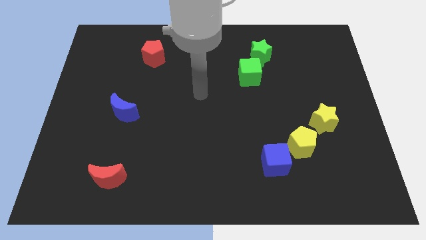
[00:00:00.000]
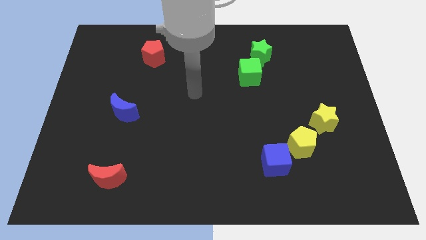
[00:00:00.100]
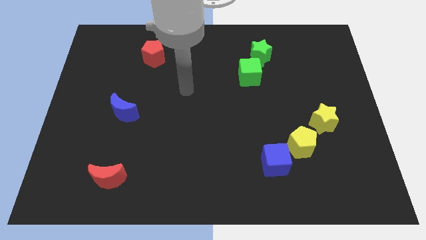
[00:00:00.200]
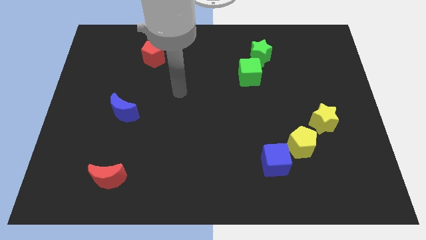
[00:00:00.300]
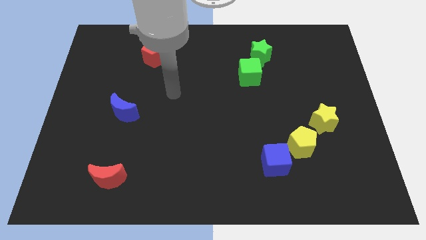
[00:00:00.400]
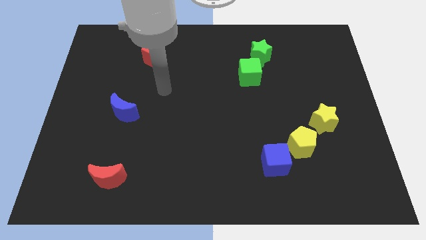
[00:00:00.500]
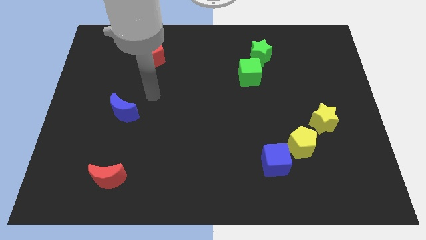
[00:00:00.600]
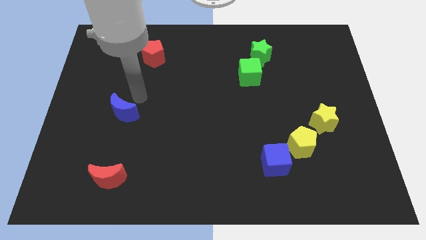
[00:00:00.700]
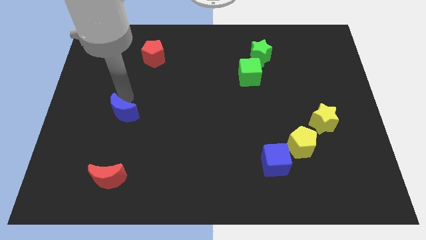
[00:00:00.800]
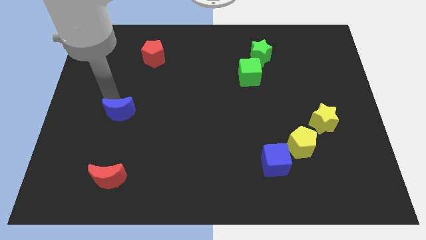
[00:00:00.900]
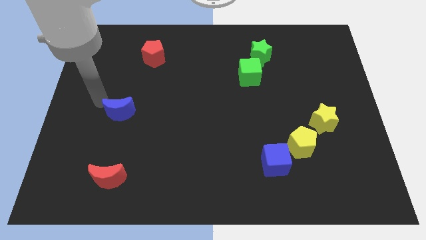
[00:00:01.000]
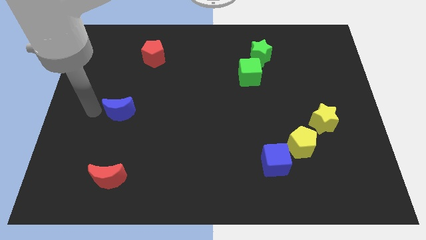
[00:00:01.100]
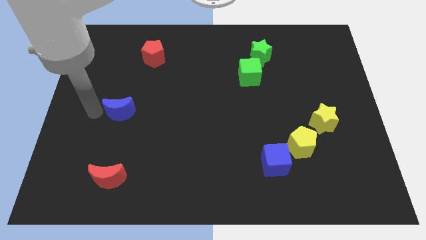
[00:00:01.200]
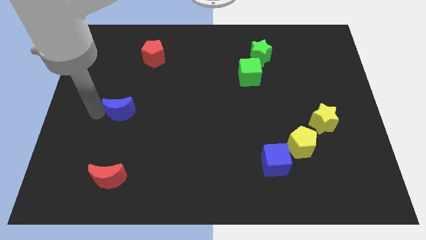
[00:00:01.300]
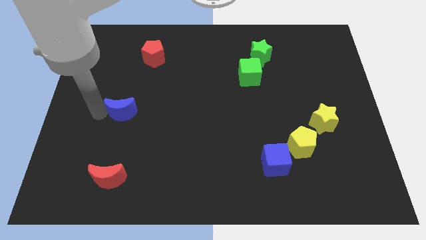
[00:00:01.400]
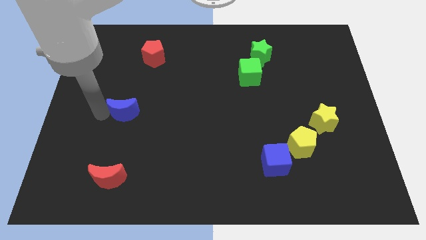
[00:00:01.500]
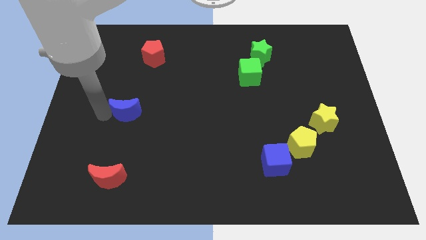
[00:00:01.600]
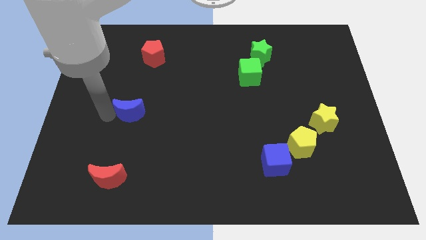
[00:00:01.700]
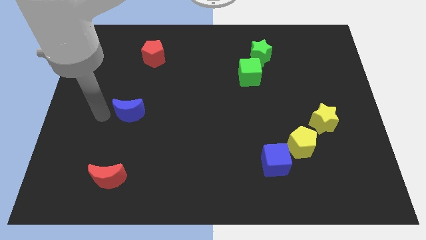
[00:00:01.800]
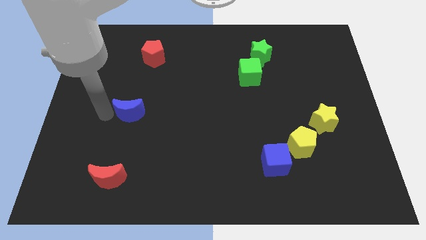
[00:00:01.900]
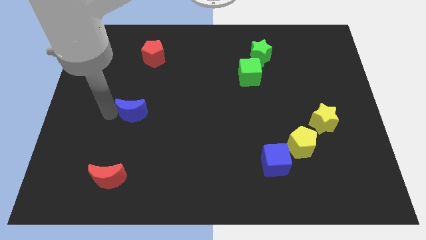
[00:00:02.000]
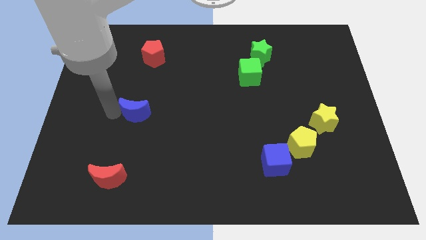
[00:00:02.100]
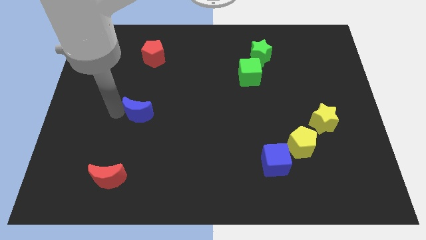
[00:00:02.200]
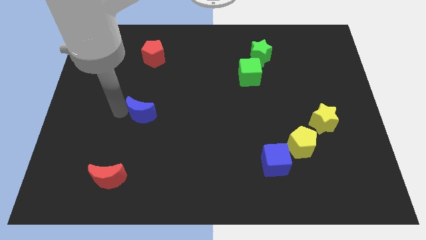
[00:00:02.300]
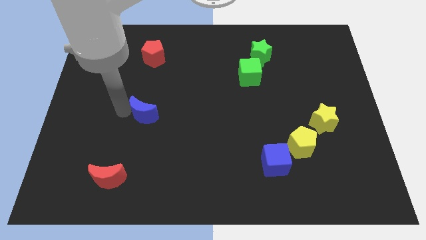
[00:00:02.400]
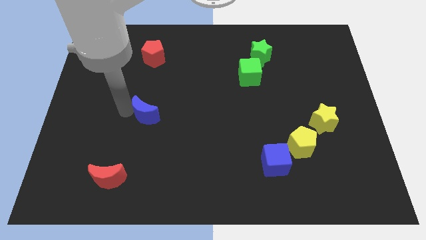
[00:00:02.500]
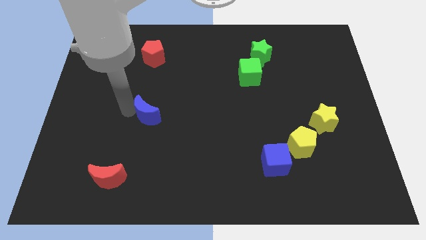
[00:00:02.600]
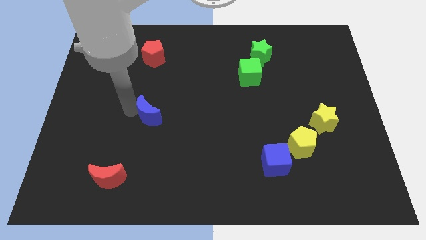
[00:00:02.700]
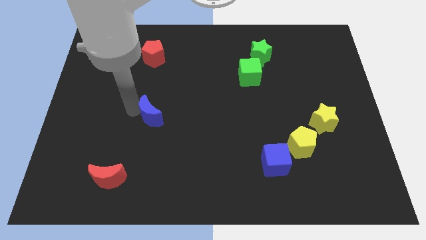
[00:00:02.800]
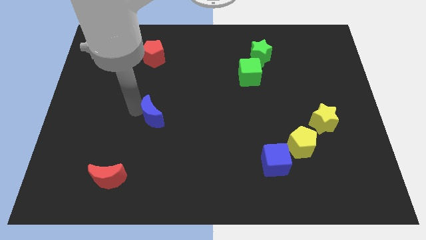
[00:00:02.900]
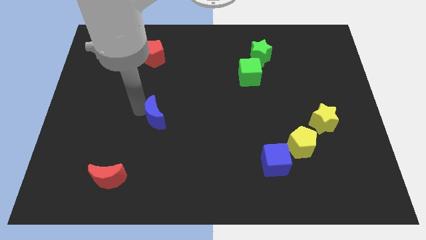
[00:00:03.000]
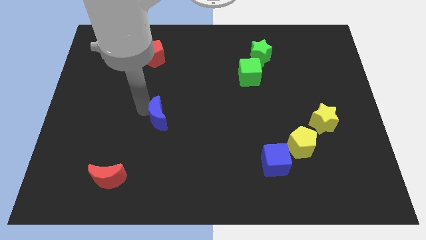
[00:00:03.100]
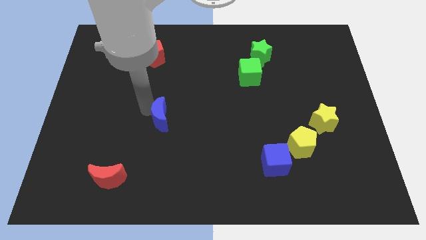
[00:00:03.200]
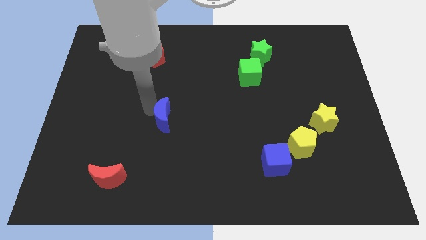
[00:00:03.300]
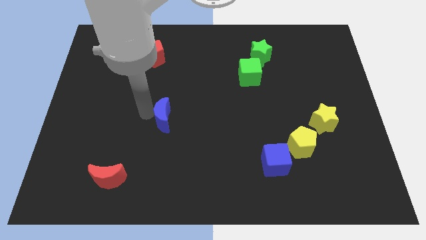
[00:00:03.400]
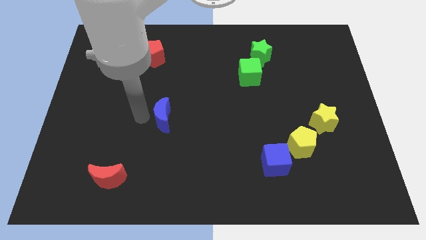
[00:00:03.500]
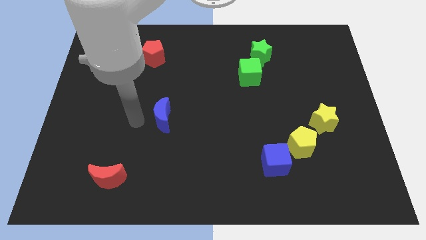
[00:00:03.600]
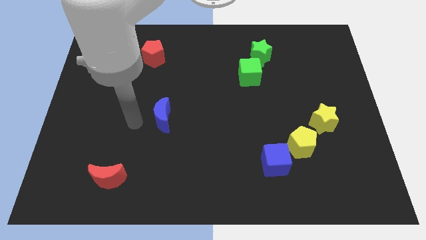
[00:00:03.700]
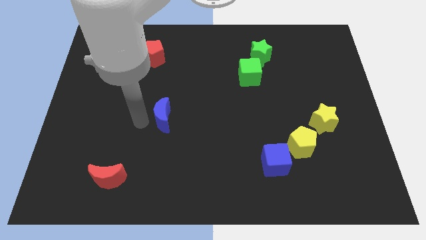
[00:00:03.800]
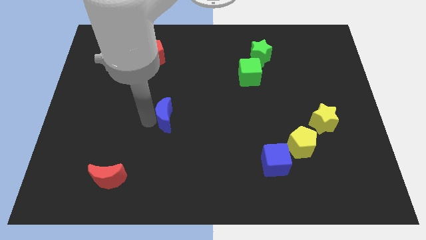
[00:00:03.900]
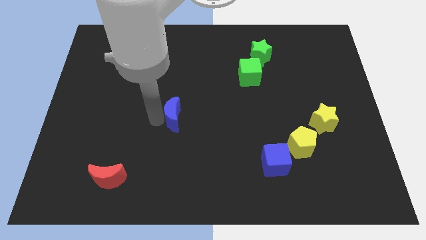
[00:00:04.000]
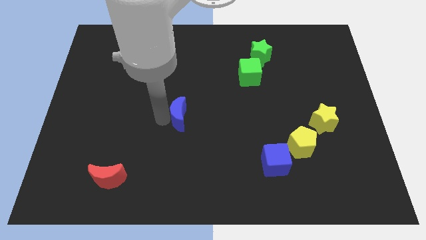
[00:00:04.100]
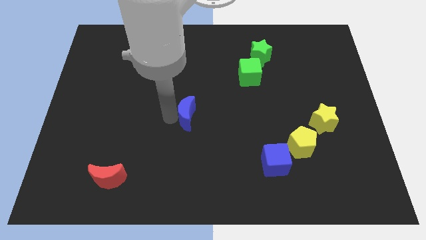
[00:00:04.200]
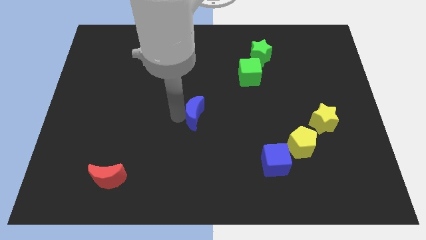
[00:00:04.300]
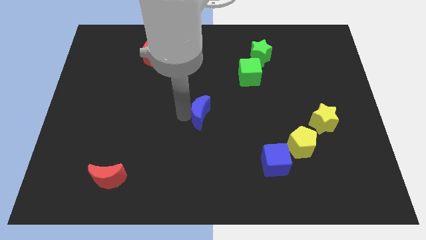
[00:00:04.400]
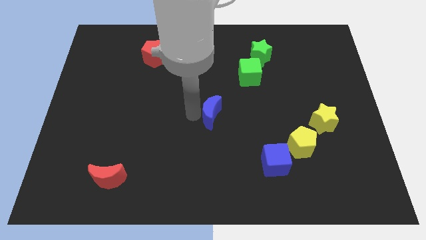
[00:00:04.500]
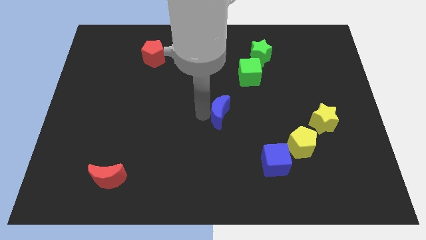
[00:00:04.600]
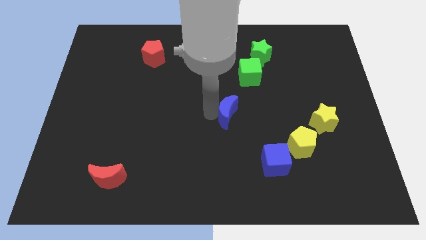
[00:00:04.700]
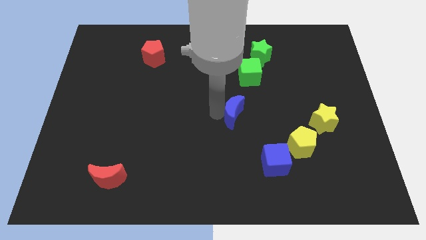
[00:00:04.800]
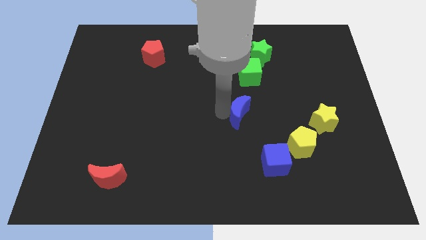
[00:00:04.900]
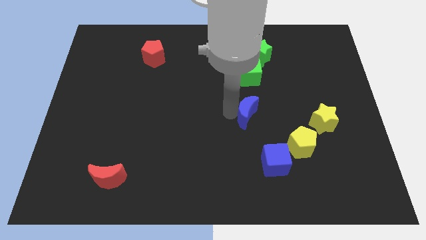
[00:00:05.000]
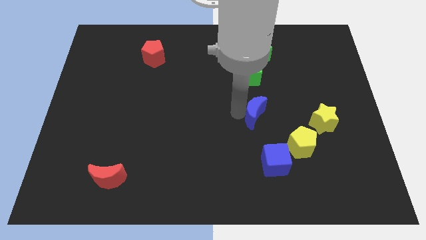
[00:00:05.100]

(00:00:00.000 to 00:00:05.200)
put the blue moon to the top side of the blue cube

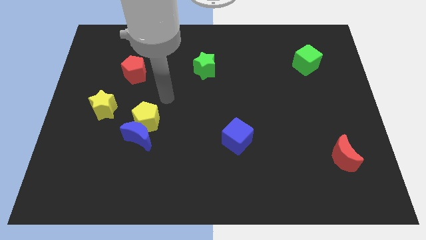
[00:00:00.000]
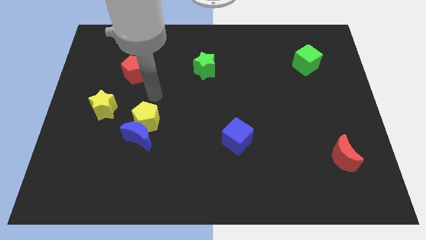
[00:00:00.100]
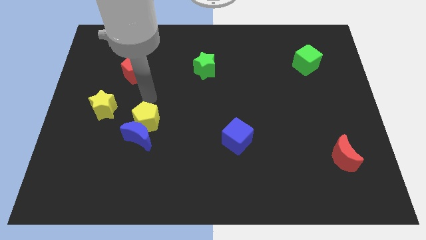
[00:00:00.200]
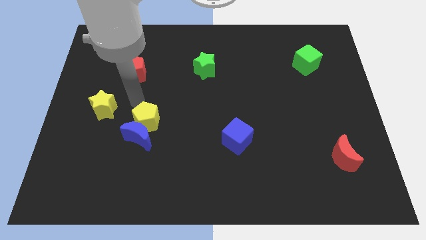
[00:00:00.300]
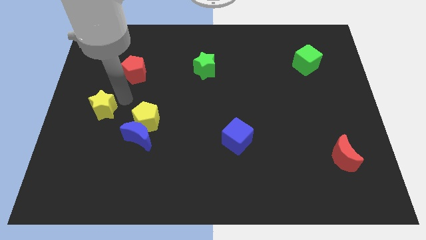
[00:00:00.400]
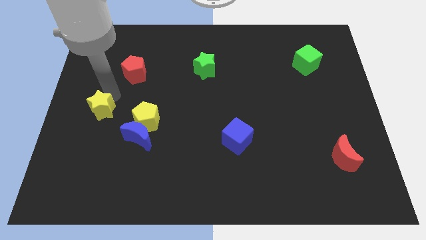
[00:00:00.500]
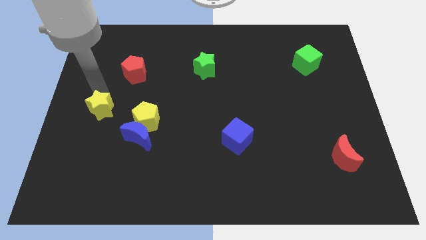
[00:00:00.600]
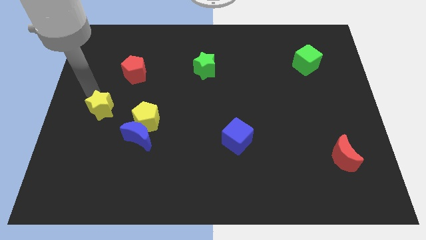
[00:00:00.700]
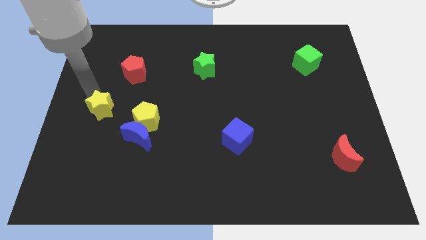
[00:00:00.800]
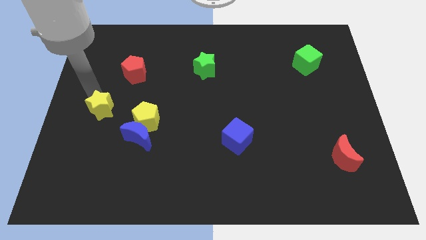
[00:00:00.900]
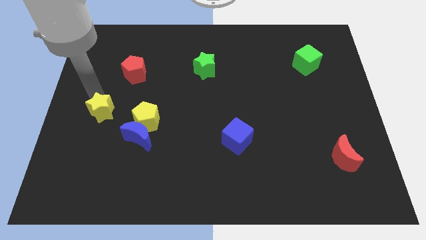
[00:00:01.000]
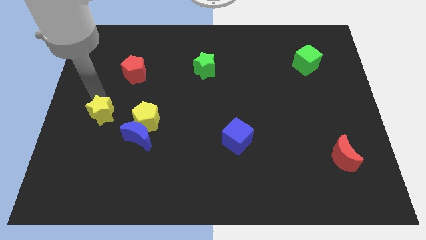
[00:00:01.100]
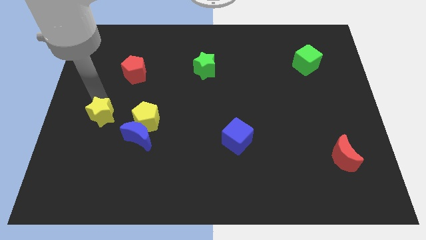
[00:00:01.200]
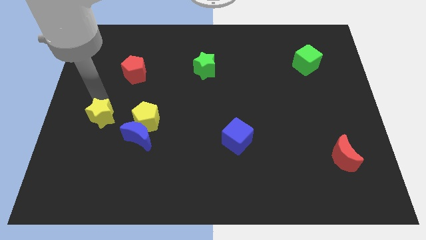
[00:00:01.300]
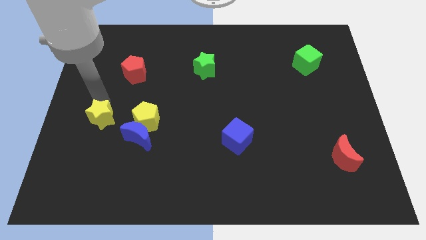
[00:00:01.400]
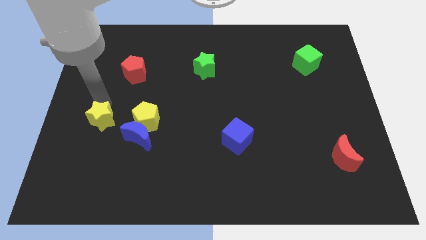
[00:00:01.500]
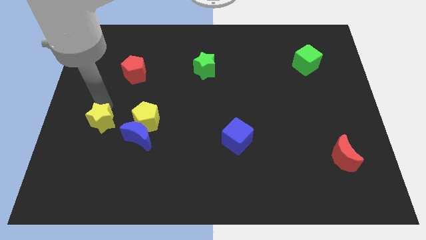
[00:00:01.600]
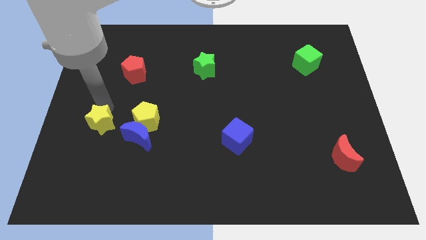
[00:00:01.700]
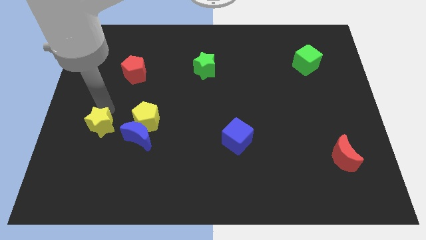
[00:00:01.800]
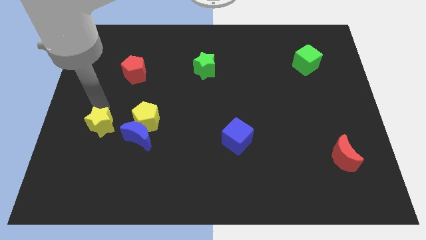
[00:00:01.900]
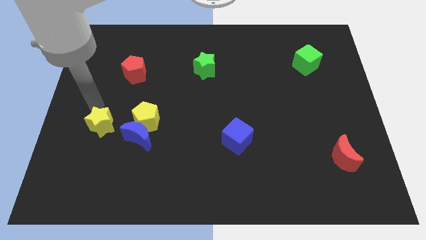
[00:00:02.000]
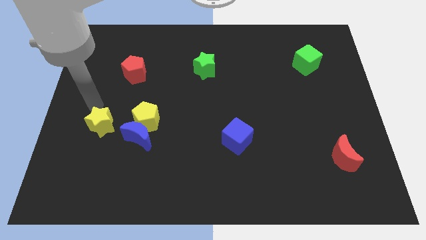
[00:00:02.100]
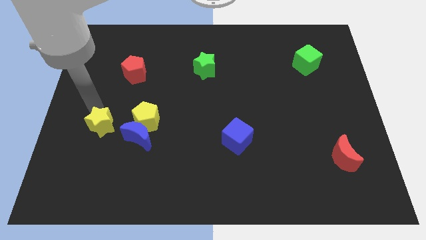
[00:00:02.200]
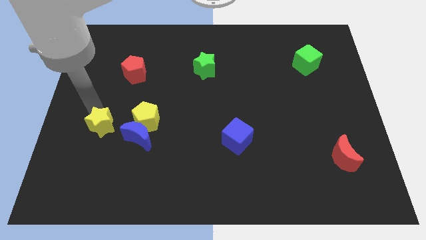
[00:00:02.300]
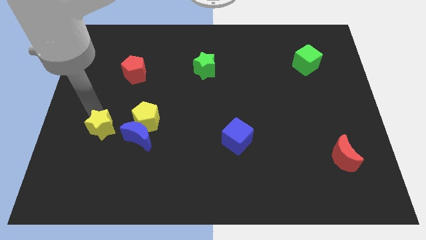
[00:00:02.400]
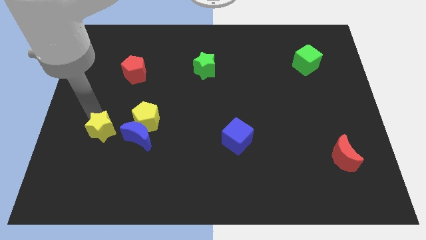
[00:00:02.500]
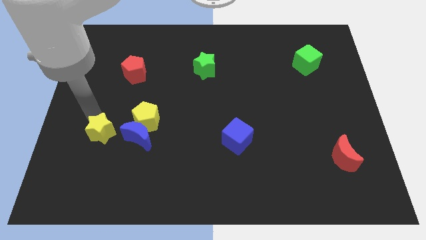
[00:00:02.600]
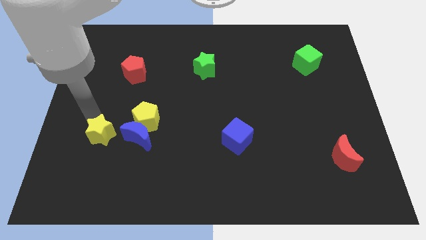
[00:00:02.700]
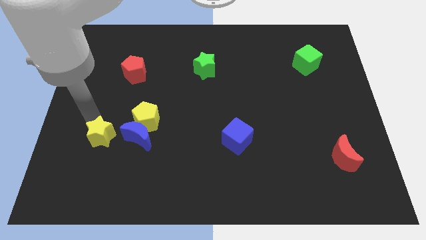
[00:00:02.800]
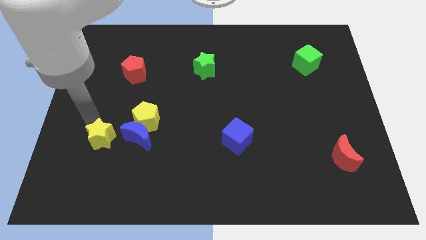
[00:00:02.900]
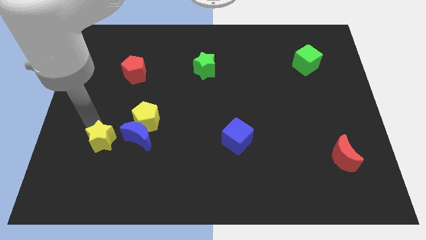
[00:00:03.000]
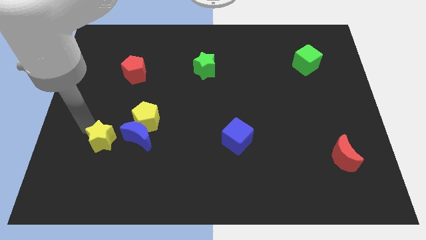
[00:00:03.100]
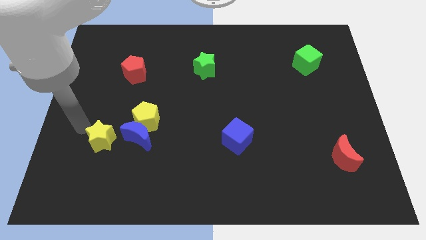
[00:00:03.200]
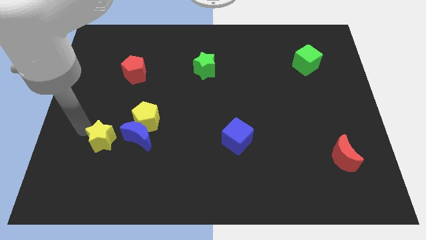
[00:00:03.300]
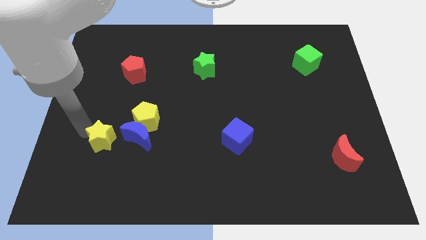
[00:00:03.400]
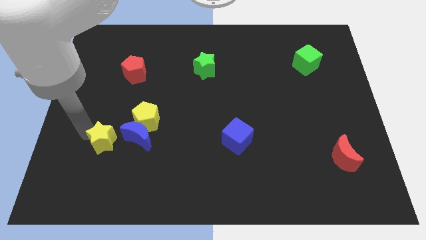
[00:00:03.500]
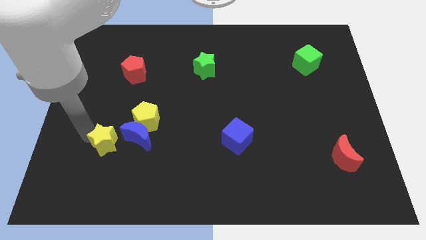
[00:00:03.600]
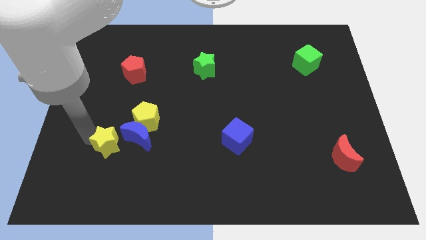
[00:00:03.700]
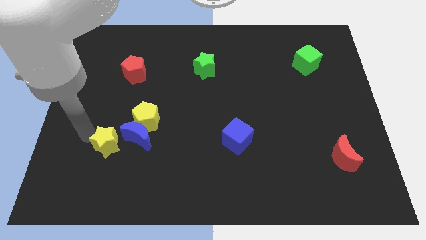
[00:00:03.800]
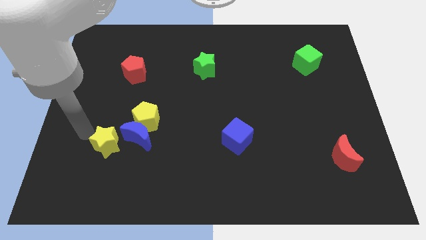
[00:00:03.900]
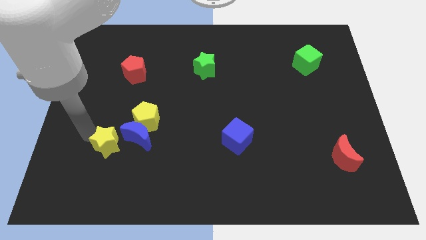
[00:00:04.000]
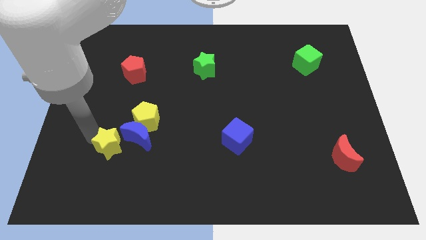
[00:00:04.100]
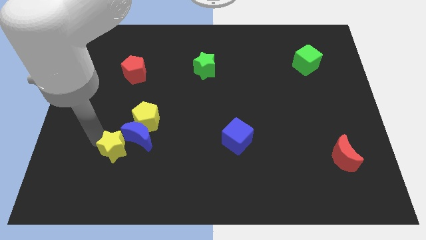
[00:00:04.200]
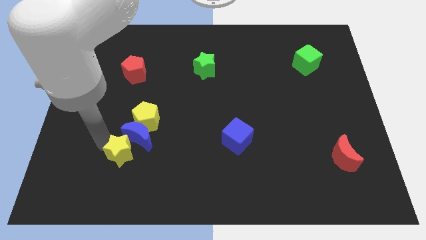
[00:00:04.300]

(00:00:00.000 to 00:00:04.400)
move the yellow star to the bottom side of the yellow pentagon
